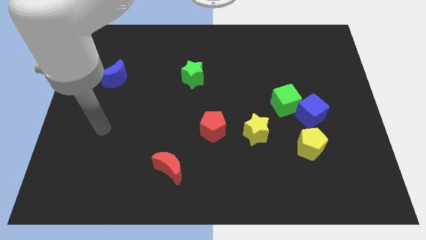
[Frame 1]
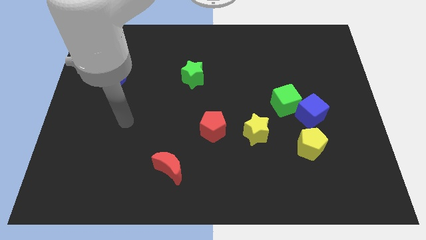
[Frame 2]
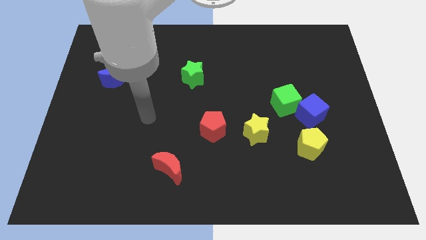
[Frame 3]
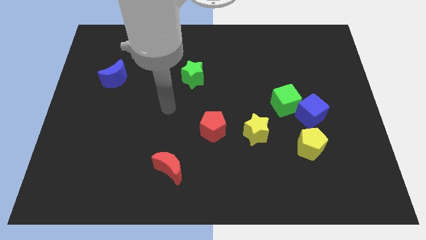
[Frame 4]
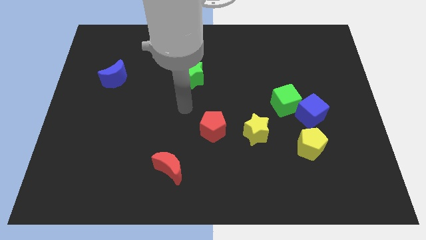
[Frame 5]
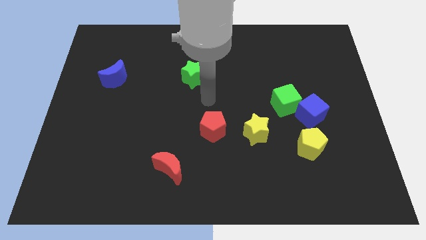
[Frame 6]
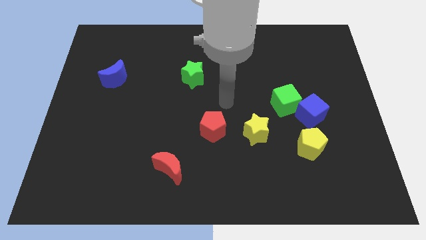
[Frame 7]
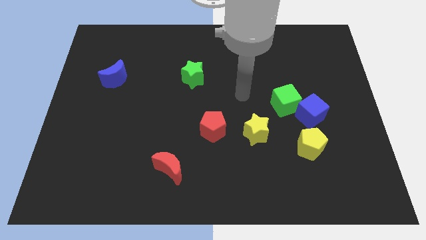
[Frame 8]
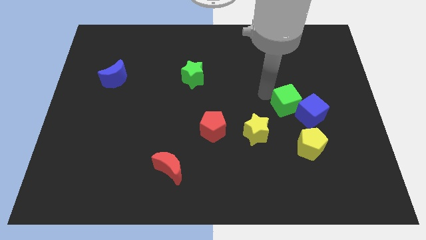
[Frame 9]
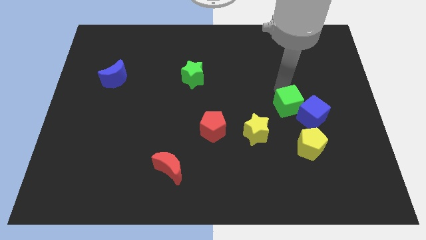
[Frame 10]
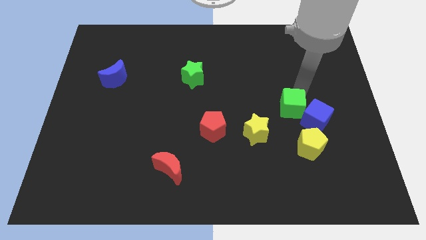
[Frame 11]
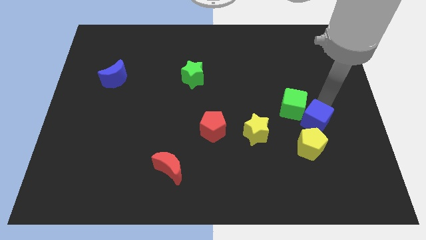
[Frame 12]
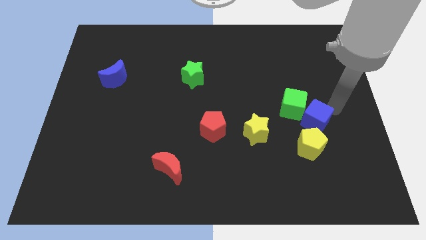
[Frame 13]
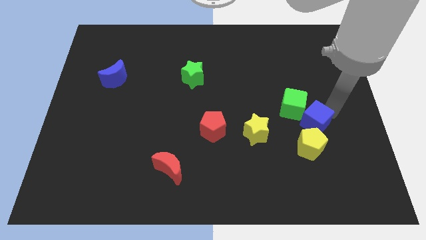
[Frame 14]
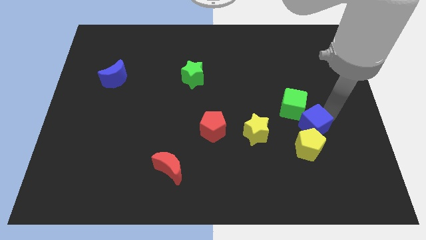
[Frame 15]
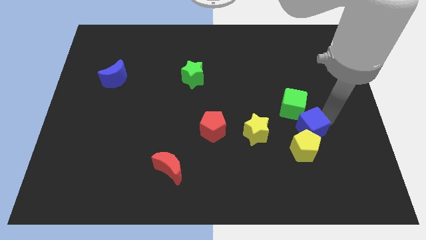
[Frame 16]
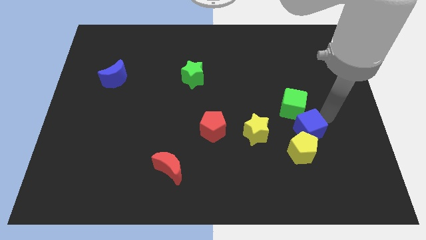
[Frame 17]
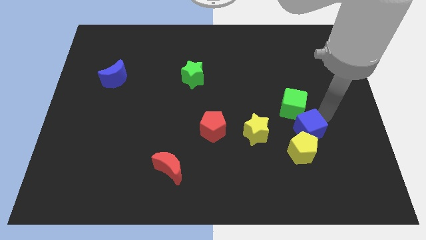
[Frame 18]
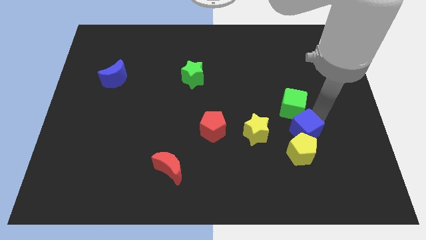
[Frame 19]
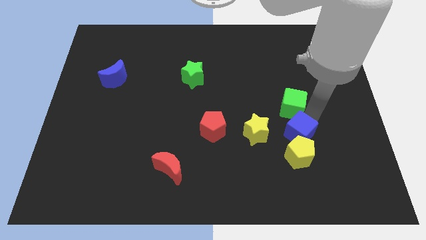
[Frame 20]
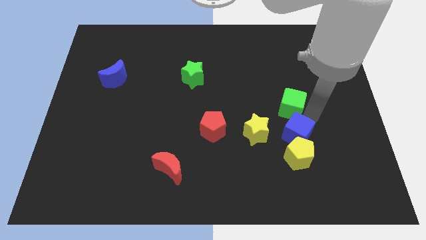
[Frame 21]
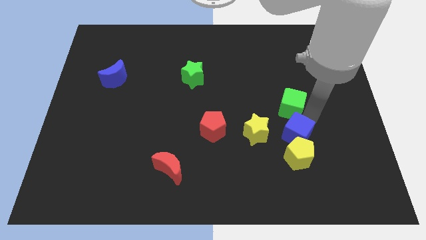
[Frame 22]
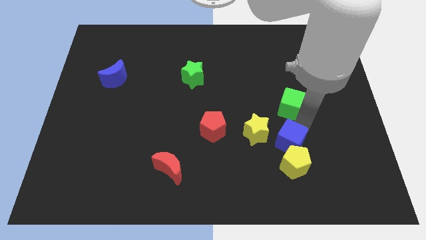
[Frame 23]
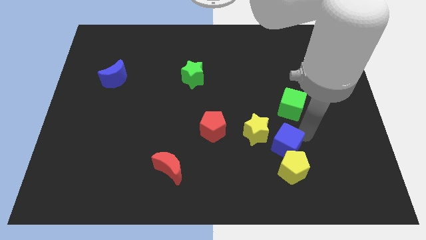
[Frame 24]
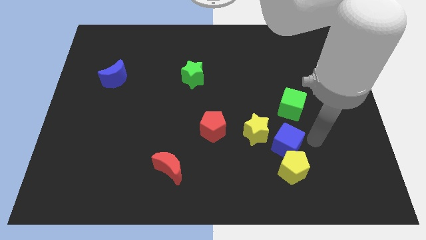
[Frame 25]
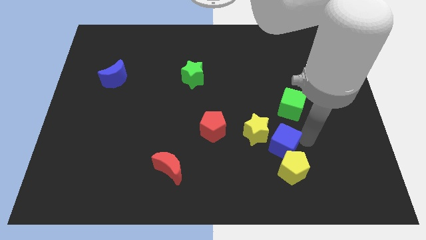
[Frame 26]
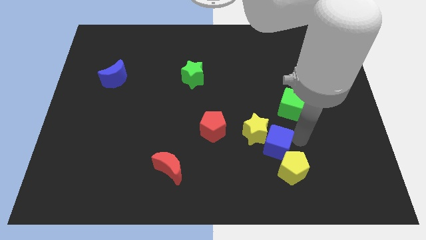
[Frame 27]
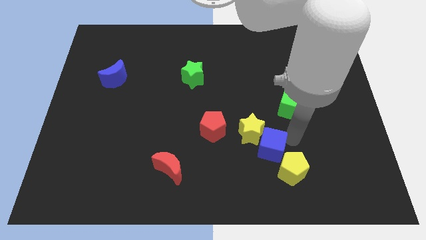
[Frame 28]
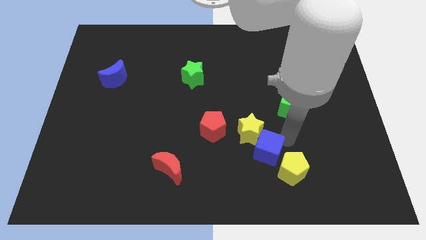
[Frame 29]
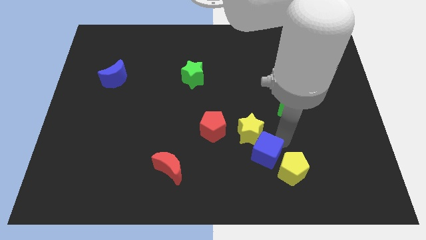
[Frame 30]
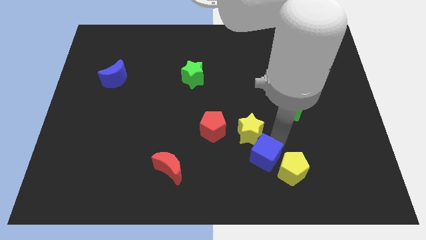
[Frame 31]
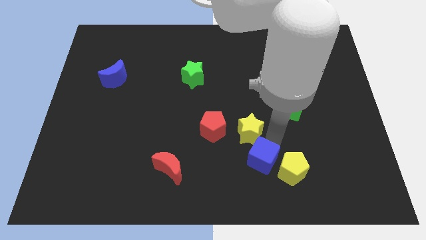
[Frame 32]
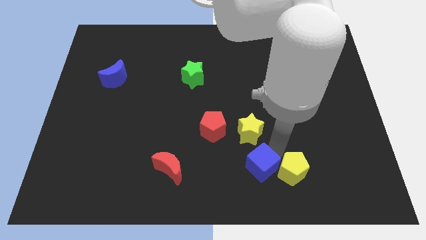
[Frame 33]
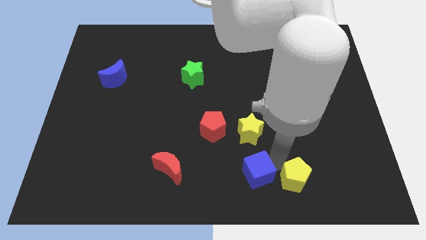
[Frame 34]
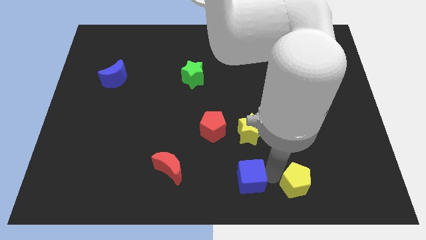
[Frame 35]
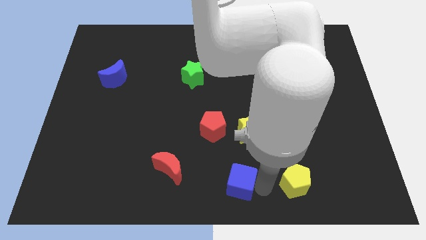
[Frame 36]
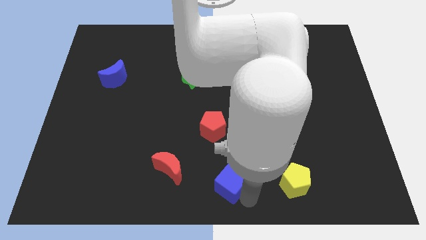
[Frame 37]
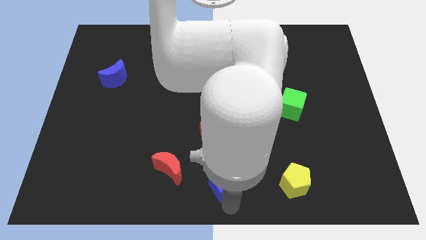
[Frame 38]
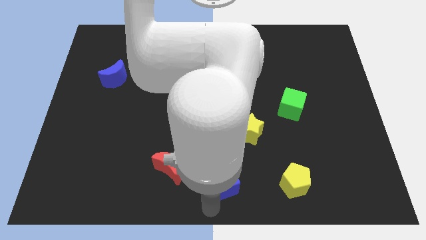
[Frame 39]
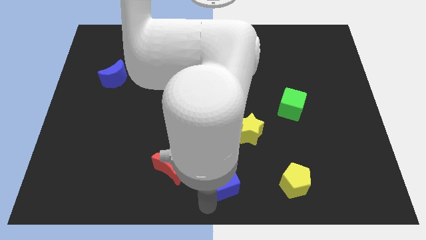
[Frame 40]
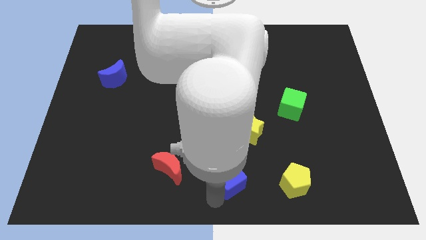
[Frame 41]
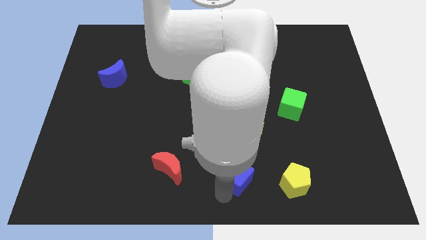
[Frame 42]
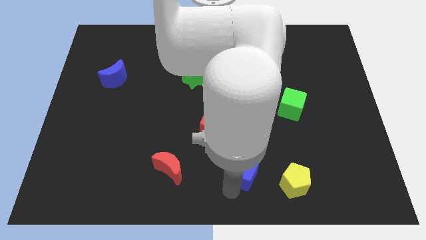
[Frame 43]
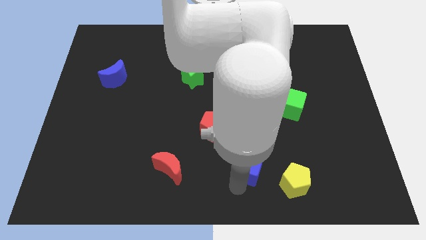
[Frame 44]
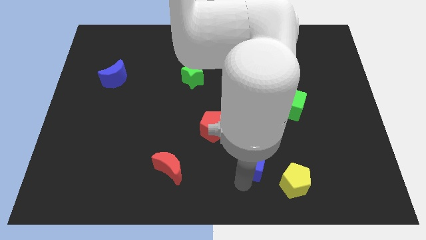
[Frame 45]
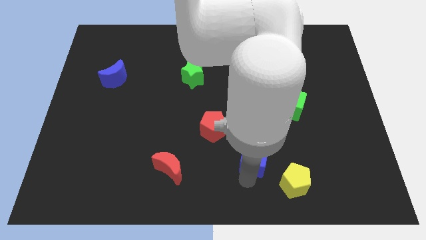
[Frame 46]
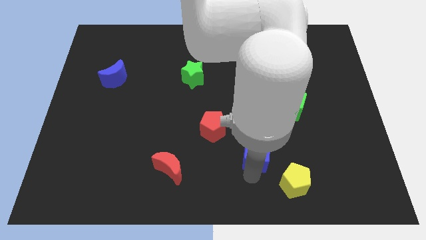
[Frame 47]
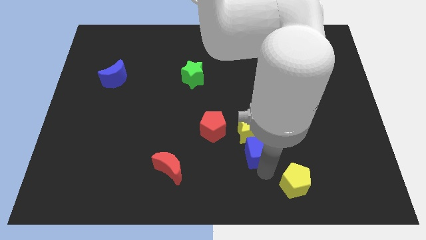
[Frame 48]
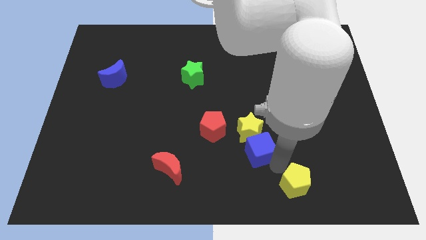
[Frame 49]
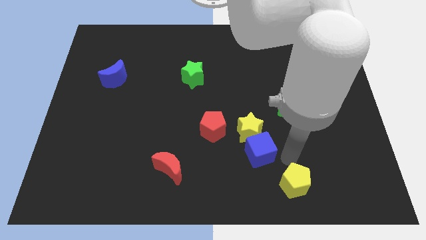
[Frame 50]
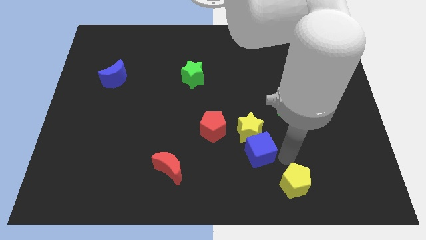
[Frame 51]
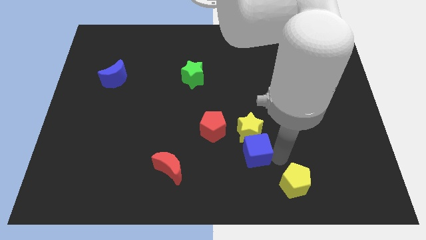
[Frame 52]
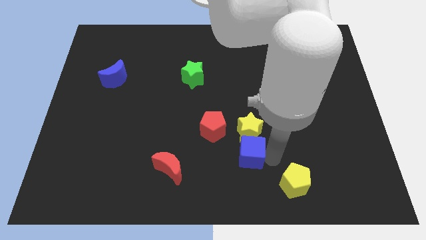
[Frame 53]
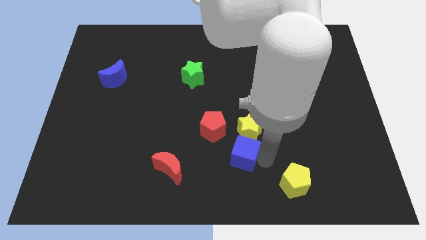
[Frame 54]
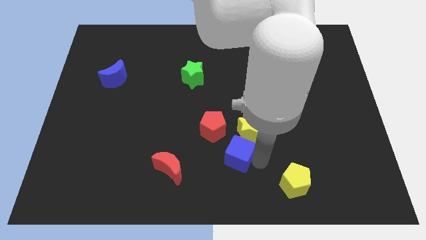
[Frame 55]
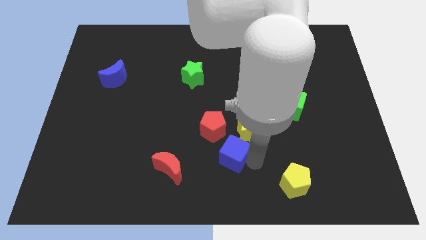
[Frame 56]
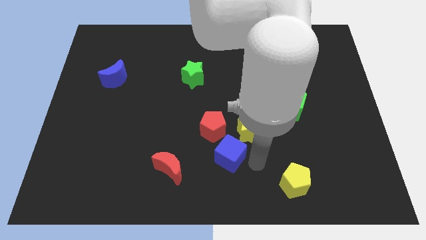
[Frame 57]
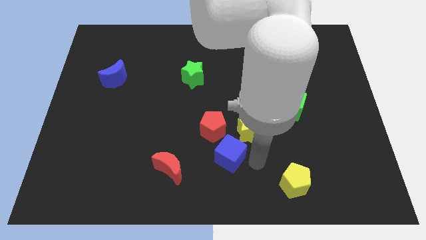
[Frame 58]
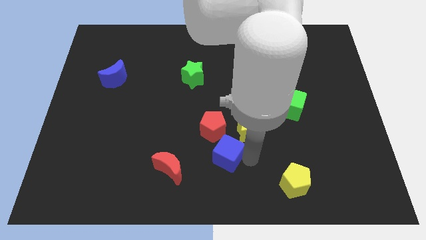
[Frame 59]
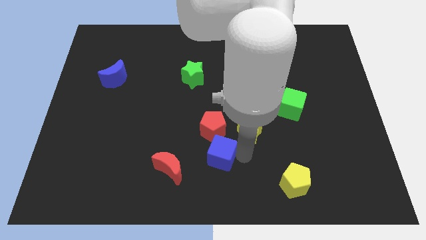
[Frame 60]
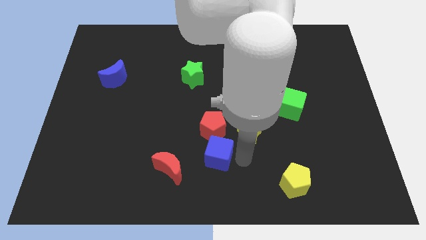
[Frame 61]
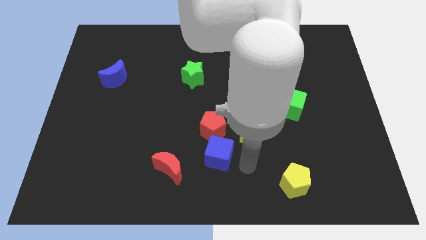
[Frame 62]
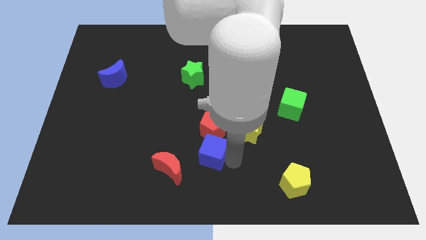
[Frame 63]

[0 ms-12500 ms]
slide the blue cube to the top right of the red moon

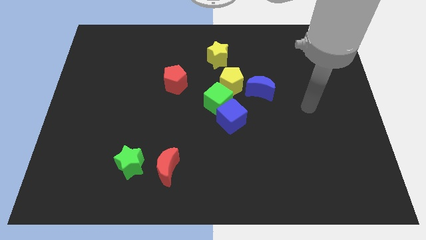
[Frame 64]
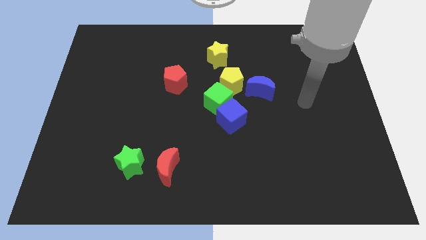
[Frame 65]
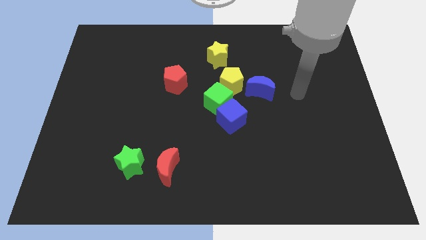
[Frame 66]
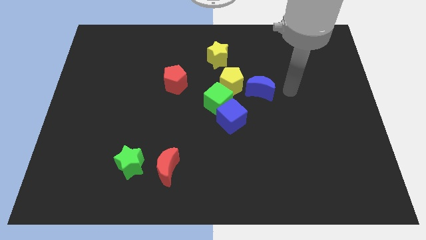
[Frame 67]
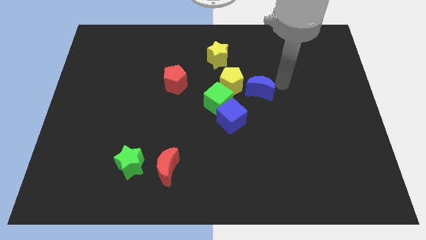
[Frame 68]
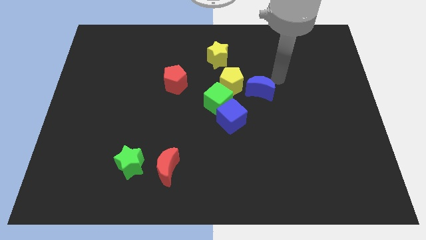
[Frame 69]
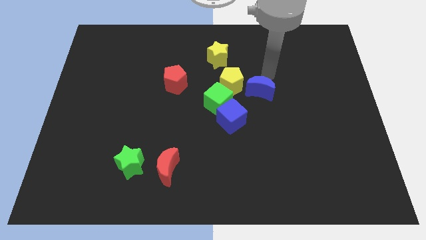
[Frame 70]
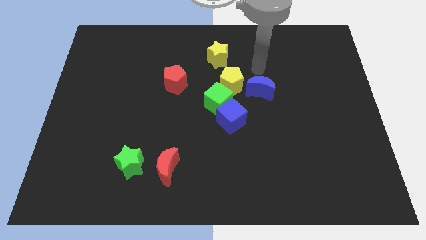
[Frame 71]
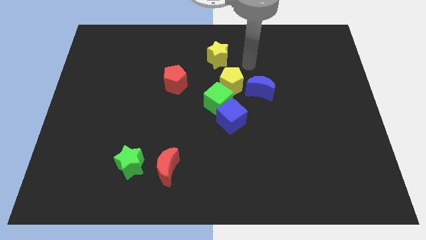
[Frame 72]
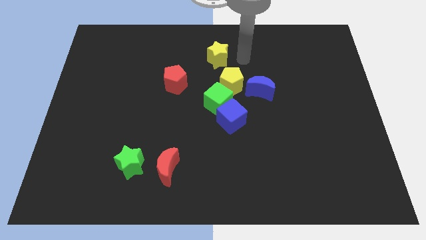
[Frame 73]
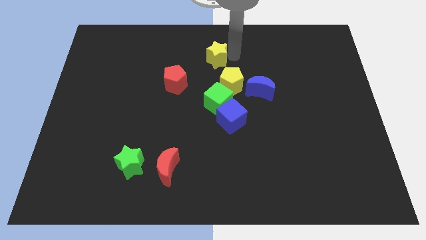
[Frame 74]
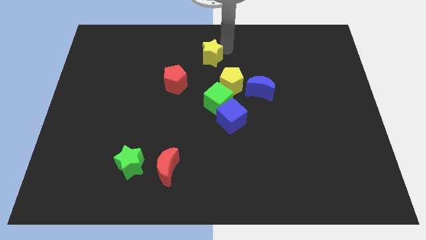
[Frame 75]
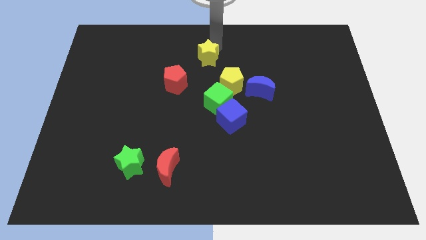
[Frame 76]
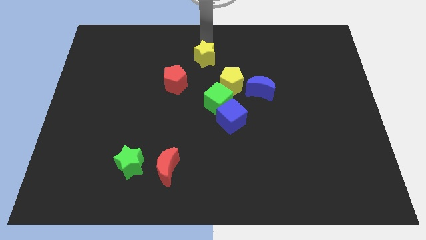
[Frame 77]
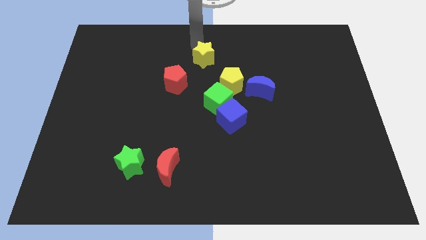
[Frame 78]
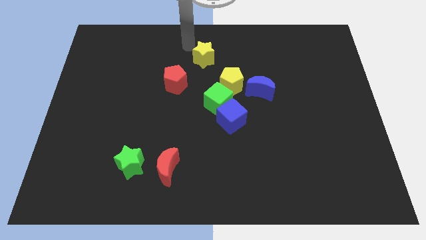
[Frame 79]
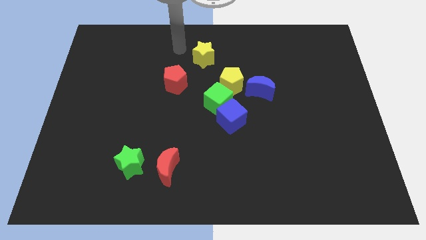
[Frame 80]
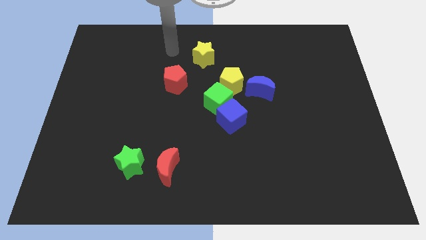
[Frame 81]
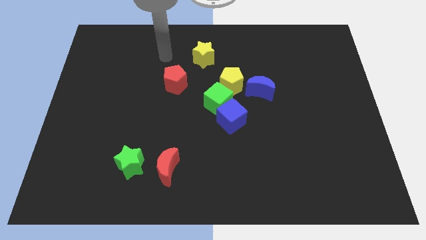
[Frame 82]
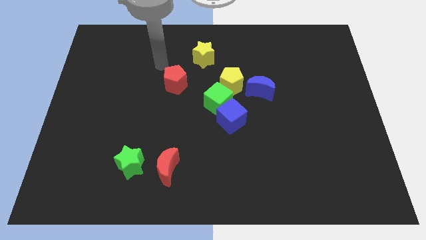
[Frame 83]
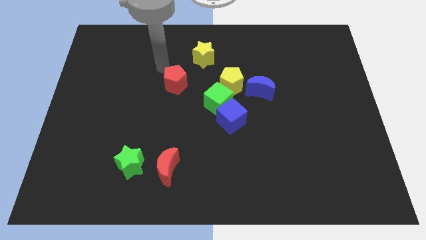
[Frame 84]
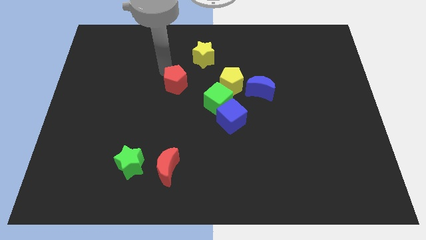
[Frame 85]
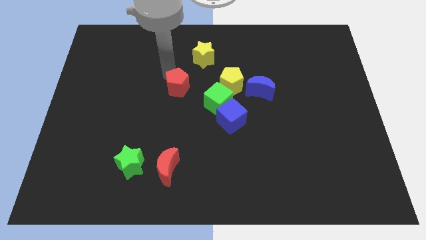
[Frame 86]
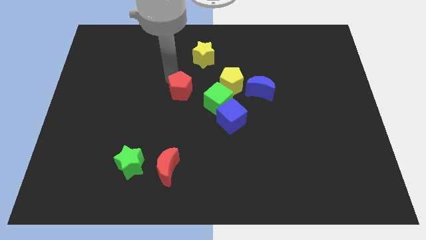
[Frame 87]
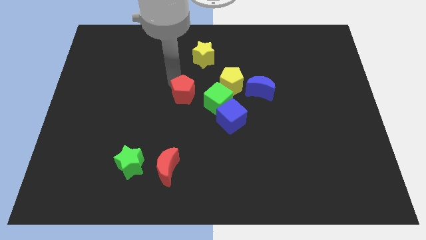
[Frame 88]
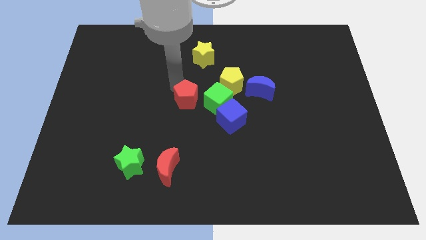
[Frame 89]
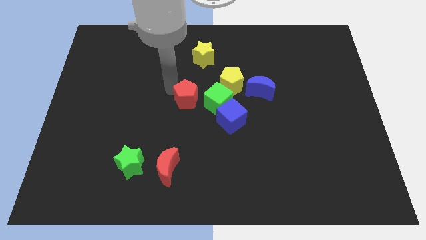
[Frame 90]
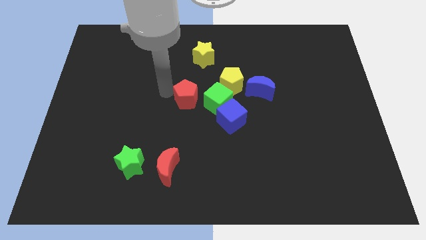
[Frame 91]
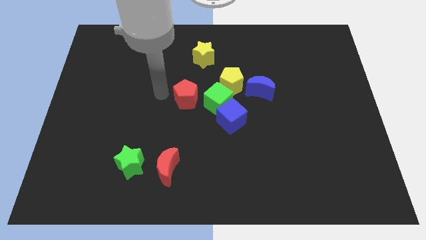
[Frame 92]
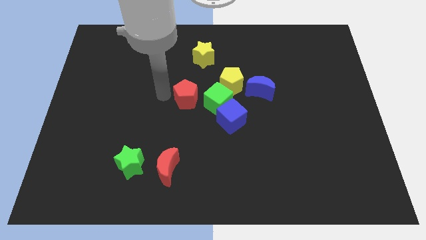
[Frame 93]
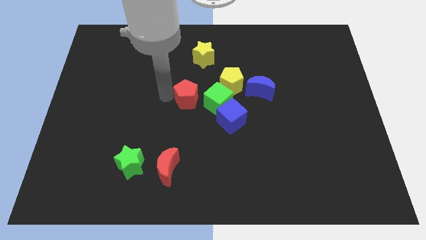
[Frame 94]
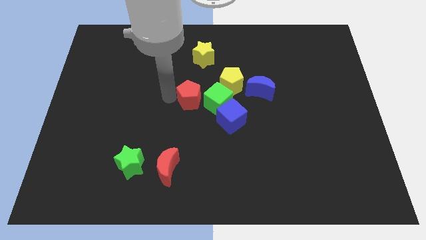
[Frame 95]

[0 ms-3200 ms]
slide the red pentagon to the bottom left of the yellow pentagon
